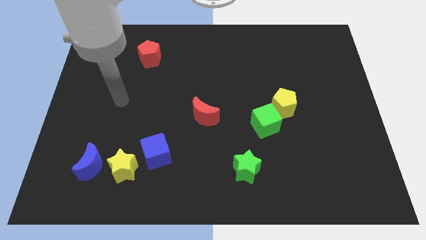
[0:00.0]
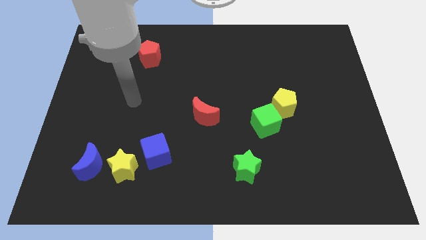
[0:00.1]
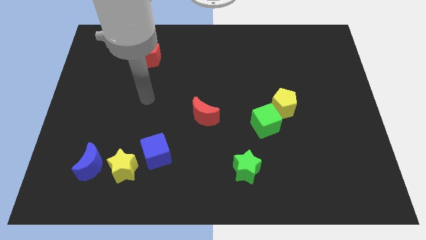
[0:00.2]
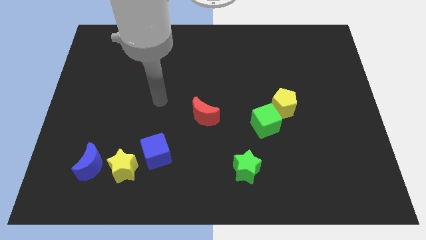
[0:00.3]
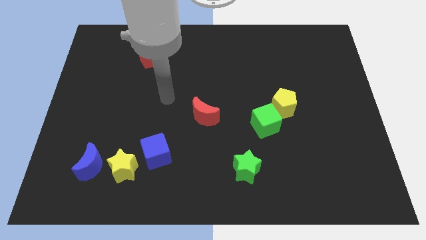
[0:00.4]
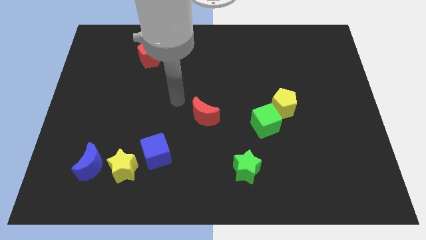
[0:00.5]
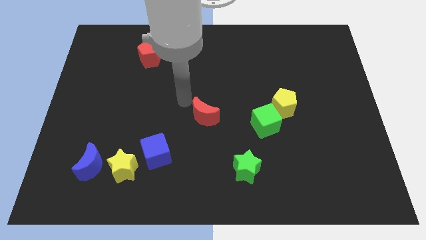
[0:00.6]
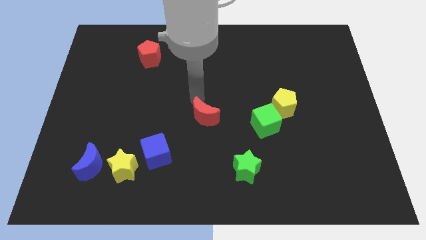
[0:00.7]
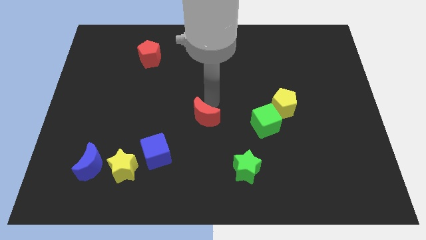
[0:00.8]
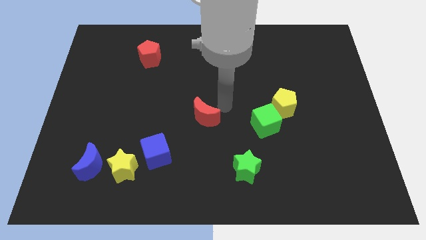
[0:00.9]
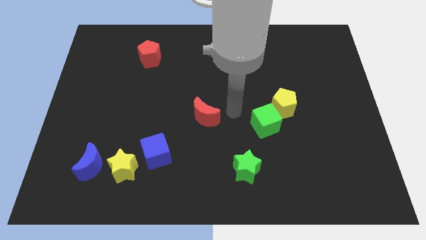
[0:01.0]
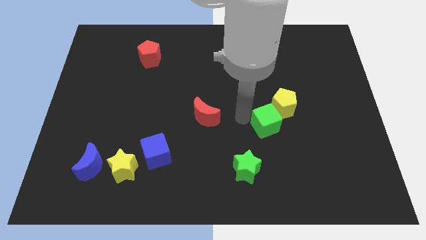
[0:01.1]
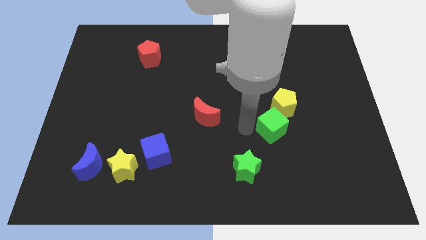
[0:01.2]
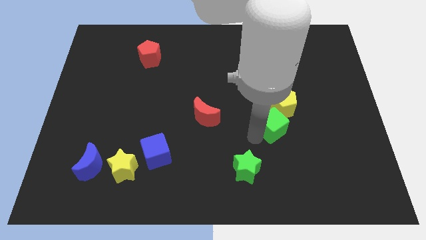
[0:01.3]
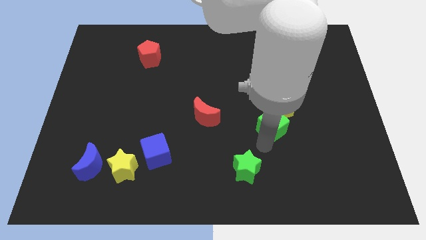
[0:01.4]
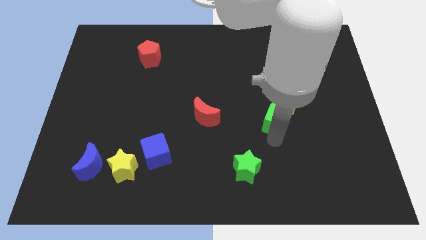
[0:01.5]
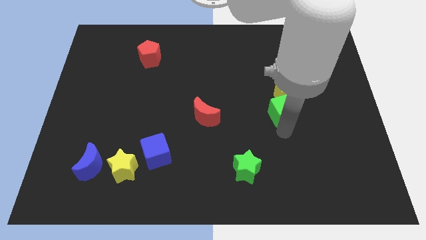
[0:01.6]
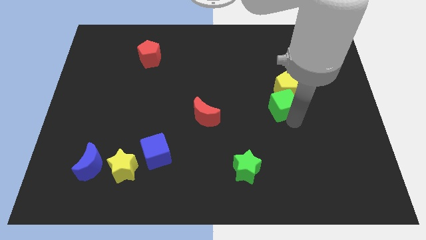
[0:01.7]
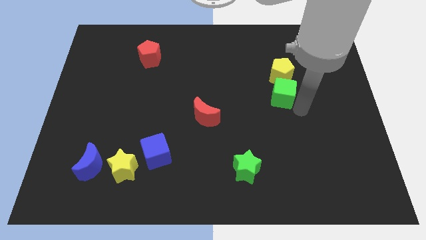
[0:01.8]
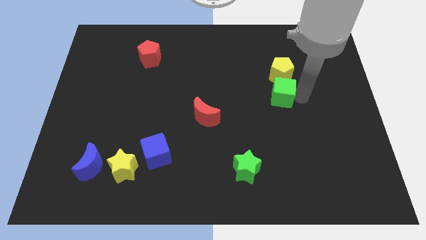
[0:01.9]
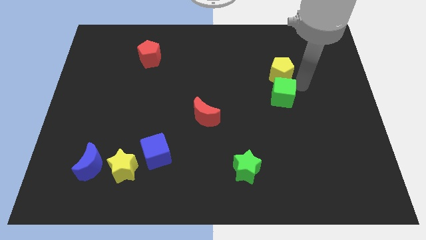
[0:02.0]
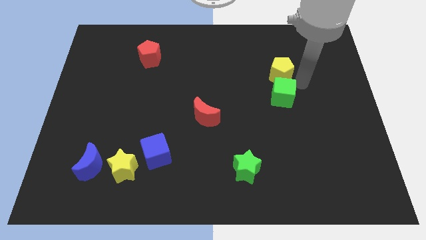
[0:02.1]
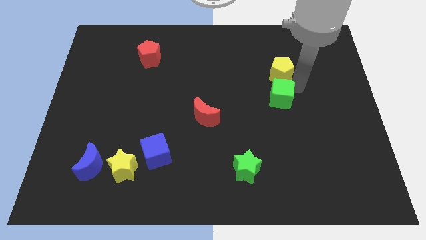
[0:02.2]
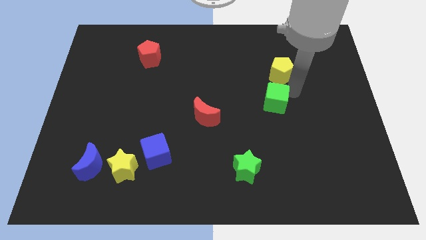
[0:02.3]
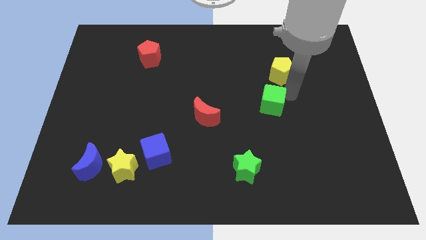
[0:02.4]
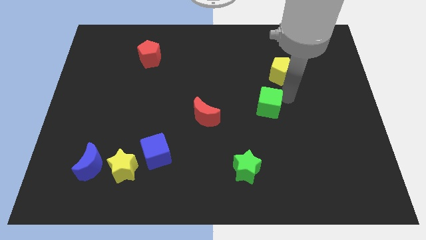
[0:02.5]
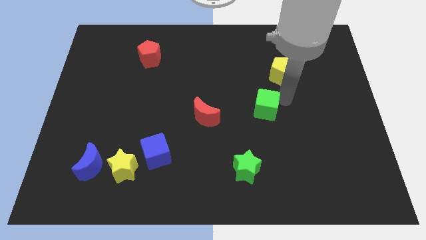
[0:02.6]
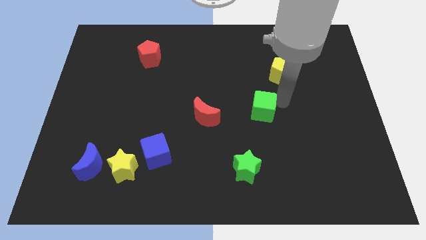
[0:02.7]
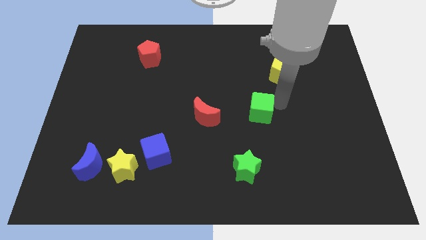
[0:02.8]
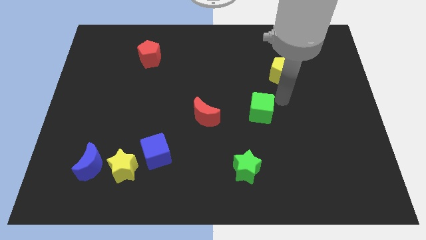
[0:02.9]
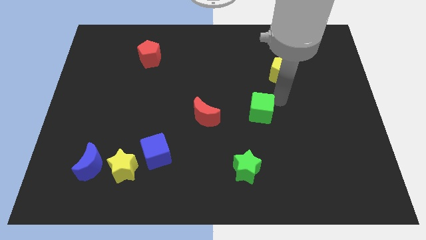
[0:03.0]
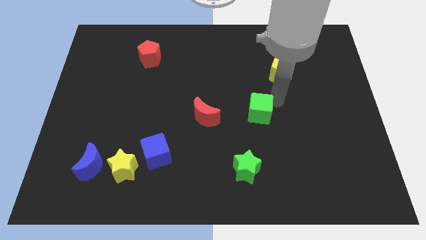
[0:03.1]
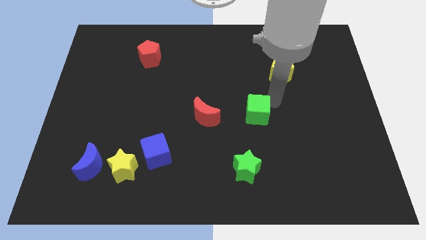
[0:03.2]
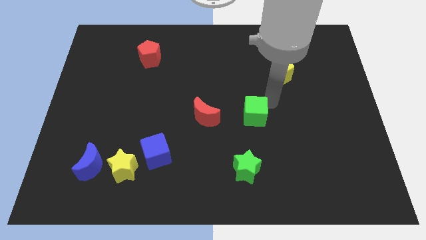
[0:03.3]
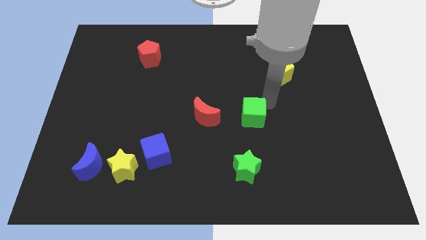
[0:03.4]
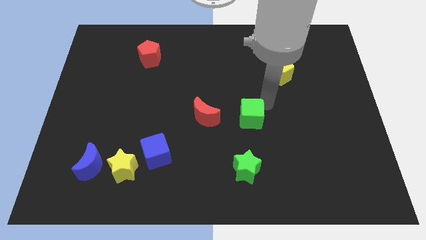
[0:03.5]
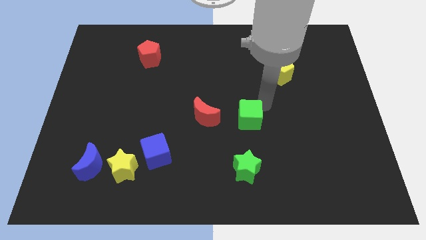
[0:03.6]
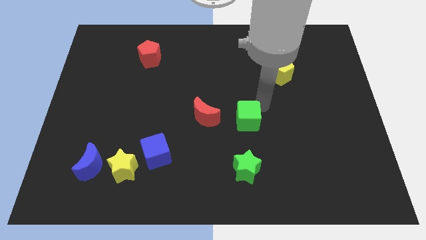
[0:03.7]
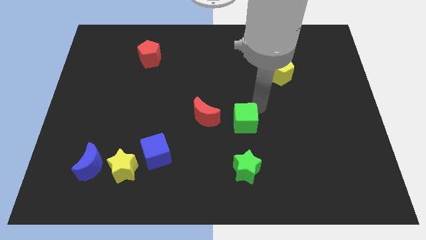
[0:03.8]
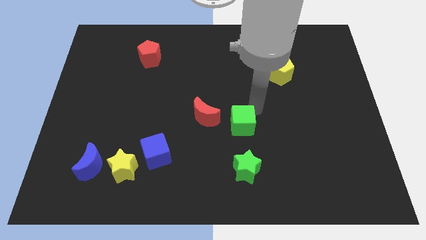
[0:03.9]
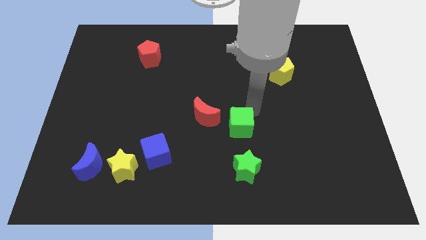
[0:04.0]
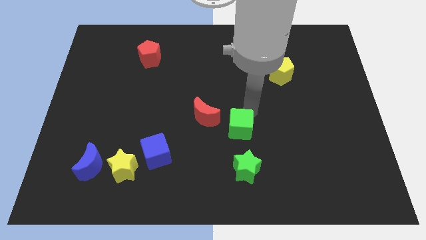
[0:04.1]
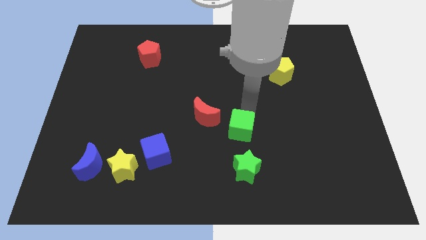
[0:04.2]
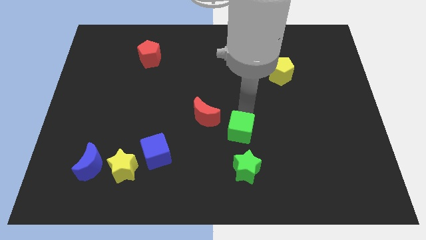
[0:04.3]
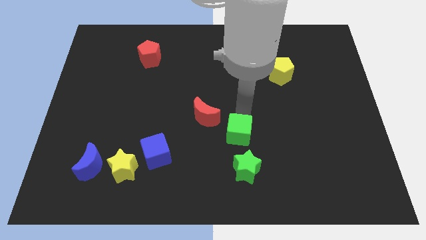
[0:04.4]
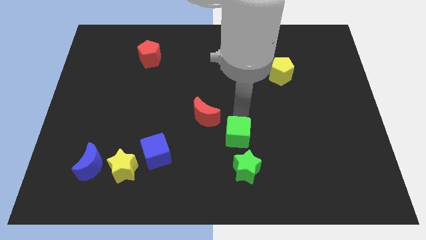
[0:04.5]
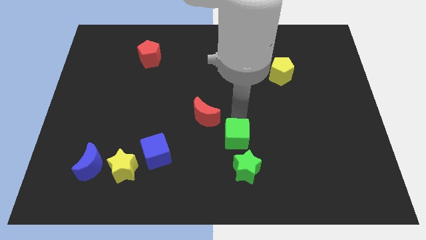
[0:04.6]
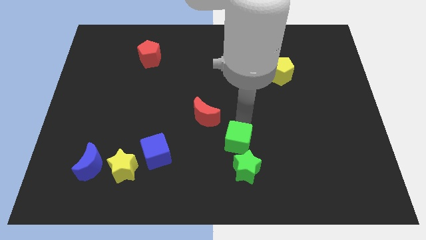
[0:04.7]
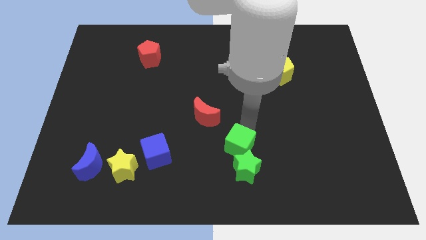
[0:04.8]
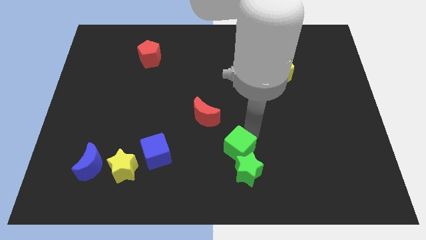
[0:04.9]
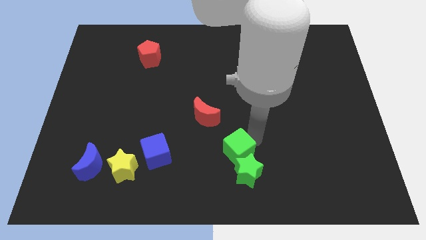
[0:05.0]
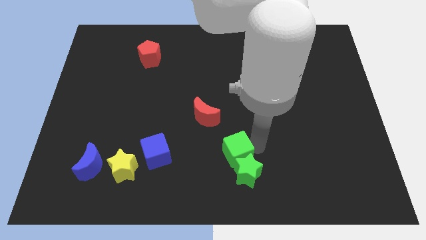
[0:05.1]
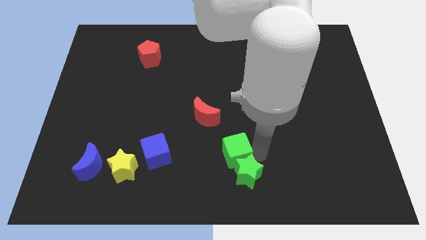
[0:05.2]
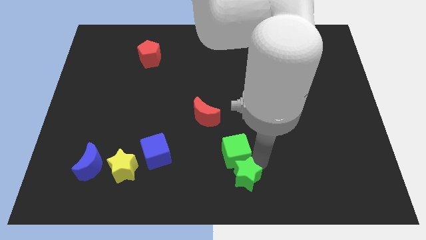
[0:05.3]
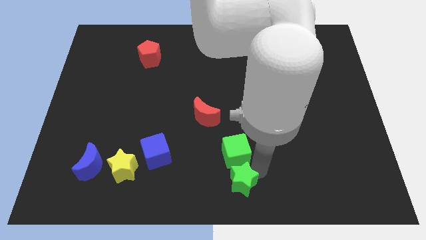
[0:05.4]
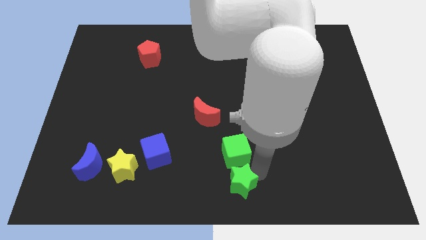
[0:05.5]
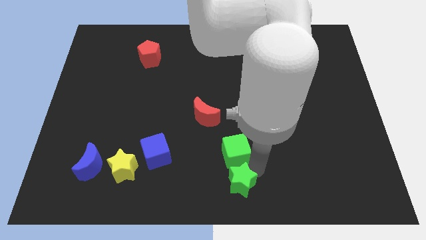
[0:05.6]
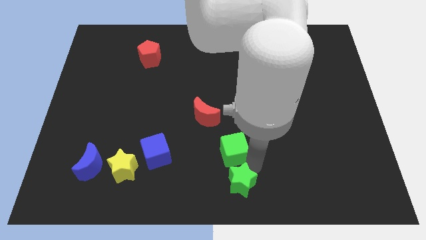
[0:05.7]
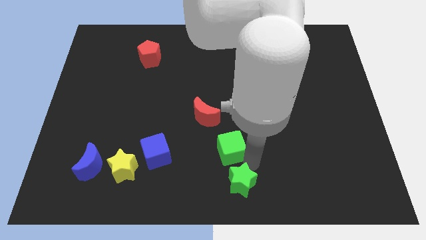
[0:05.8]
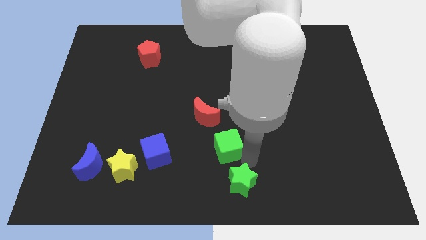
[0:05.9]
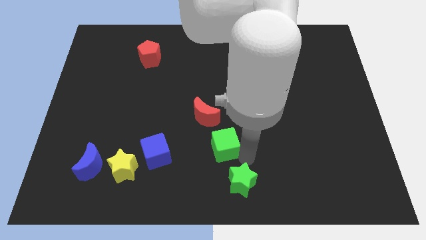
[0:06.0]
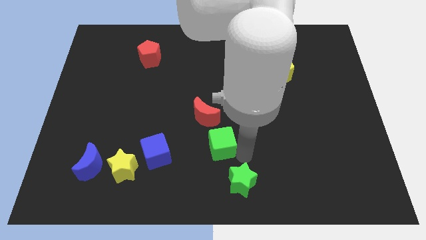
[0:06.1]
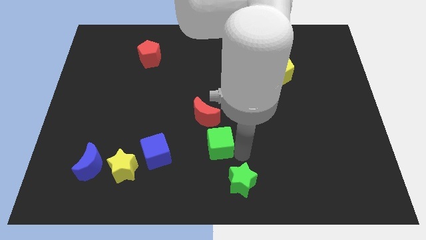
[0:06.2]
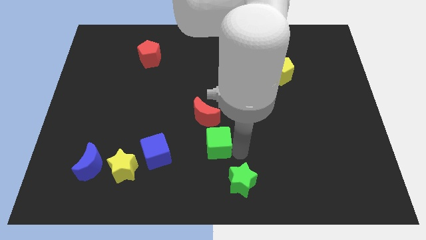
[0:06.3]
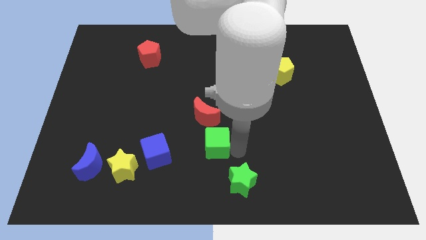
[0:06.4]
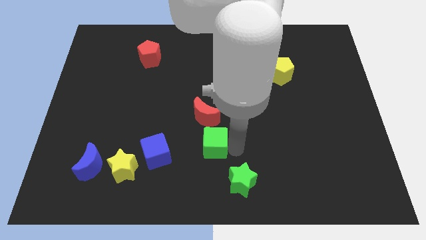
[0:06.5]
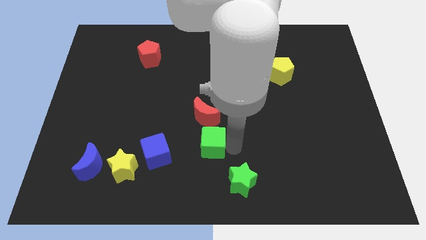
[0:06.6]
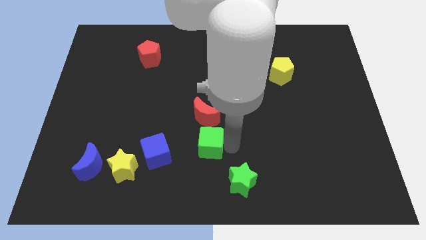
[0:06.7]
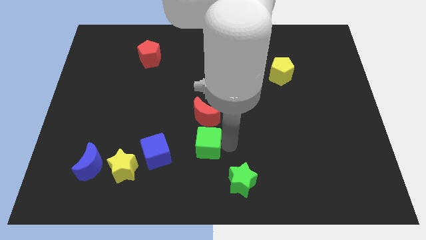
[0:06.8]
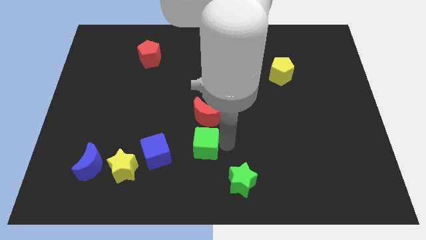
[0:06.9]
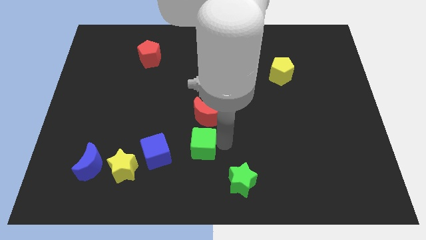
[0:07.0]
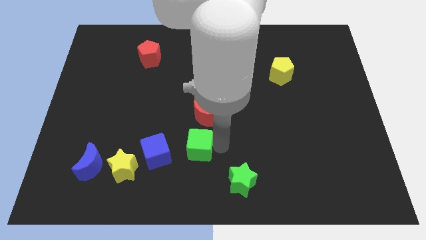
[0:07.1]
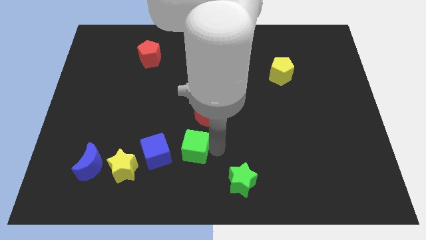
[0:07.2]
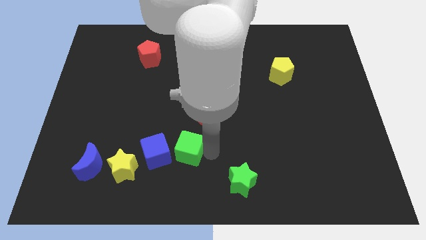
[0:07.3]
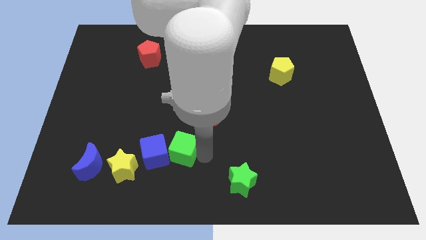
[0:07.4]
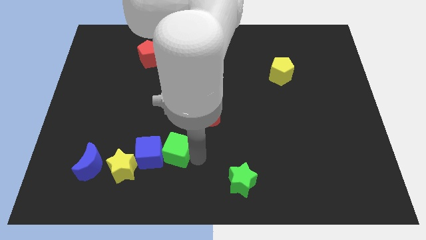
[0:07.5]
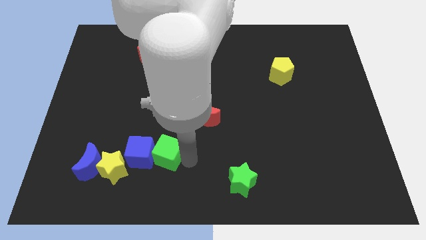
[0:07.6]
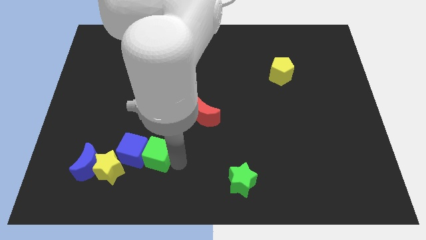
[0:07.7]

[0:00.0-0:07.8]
push the green cube to the left

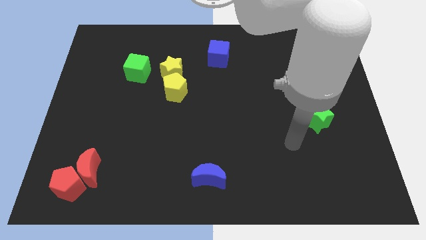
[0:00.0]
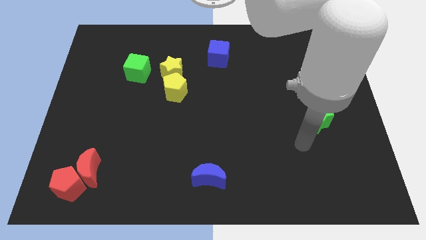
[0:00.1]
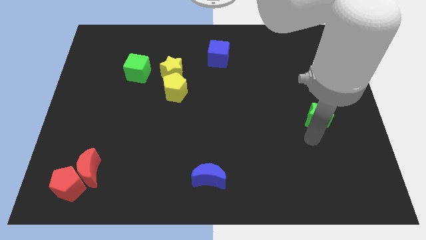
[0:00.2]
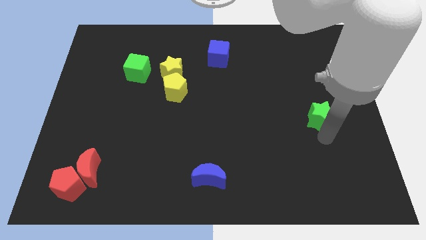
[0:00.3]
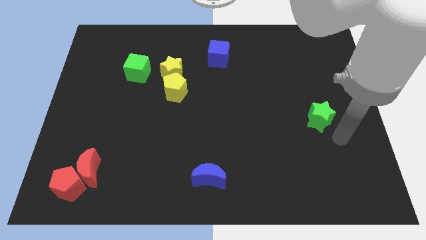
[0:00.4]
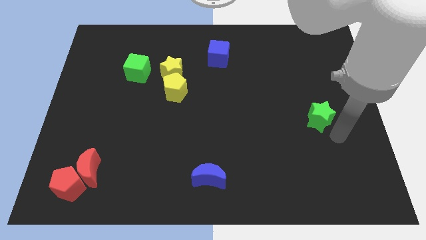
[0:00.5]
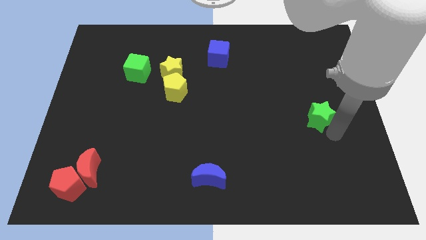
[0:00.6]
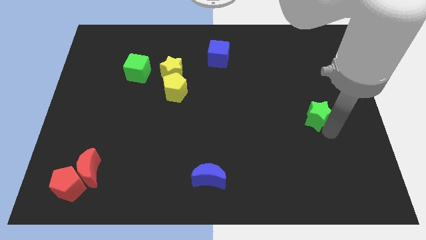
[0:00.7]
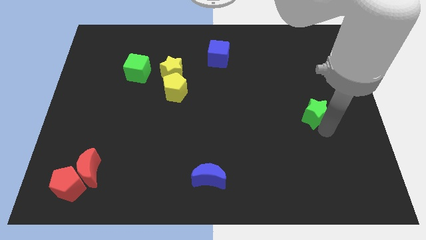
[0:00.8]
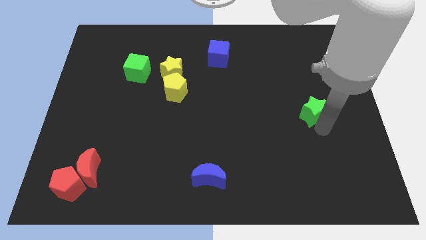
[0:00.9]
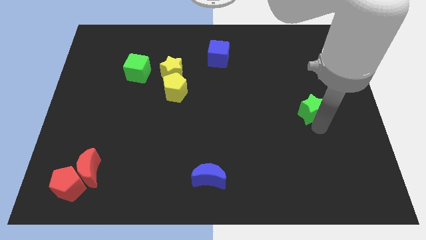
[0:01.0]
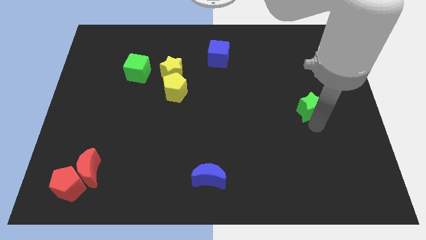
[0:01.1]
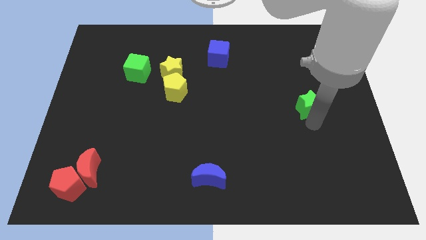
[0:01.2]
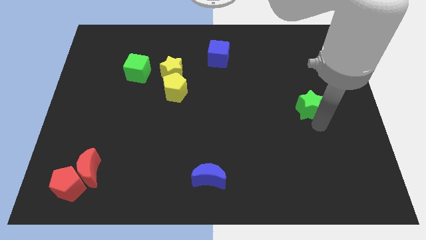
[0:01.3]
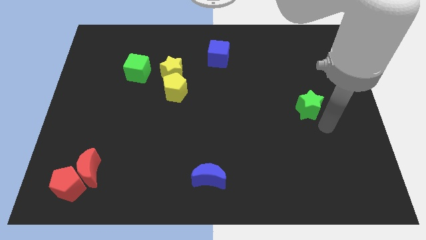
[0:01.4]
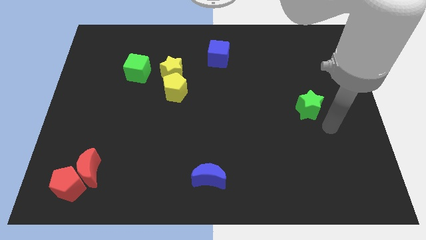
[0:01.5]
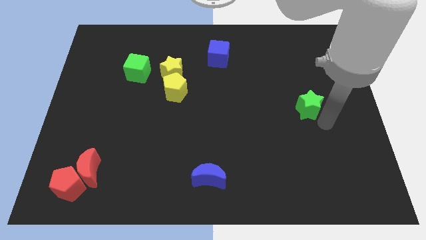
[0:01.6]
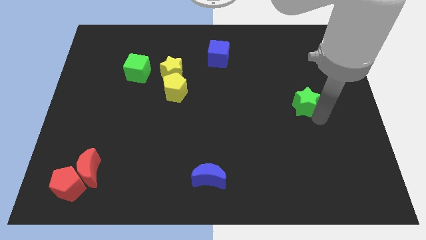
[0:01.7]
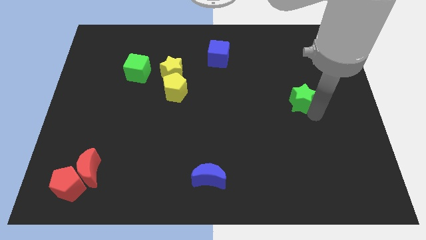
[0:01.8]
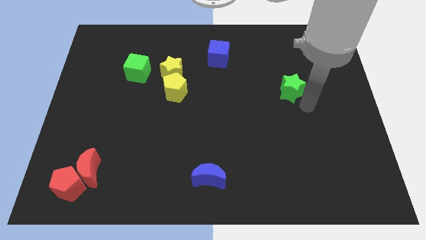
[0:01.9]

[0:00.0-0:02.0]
slightly move the green star up and to the left diagonally
